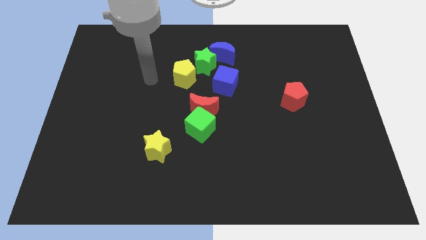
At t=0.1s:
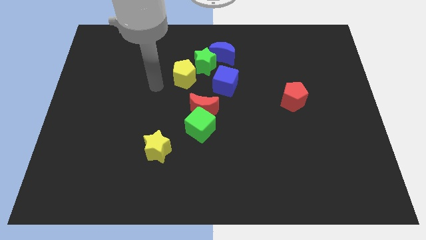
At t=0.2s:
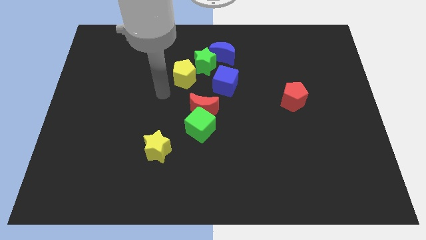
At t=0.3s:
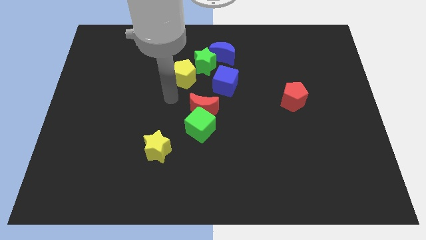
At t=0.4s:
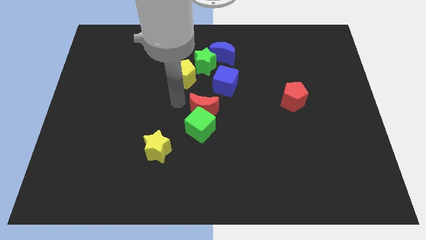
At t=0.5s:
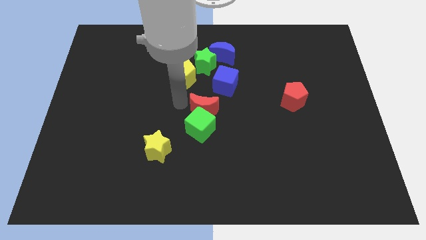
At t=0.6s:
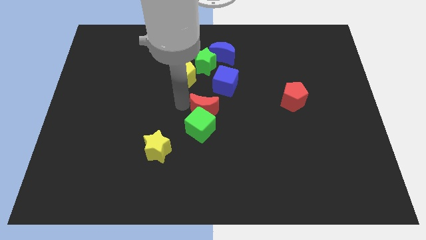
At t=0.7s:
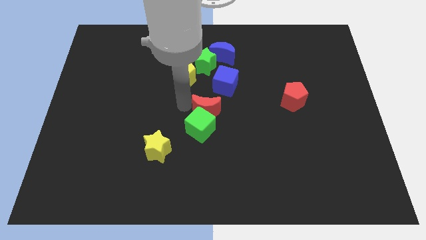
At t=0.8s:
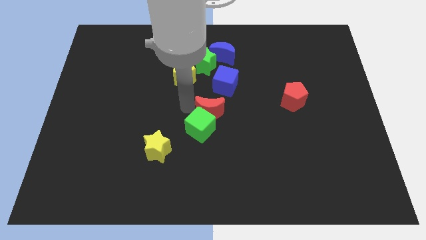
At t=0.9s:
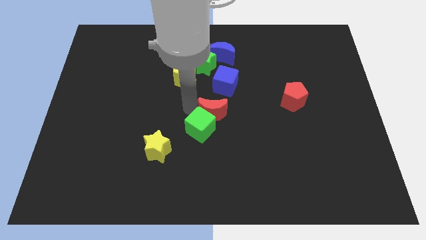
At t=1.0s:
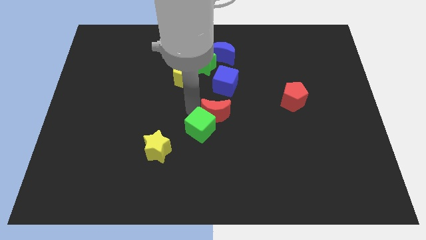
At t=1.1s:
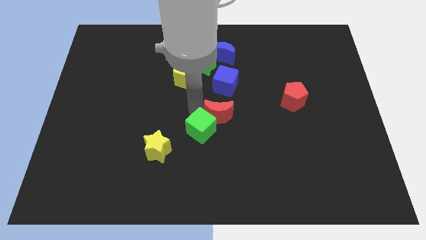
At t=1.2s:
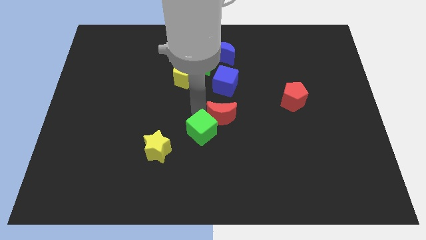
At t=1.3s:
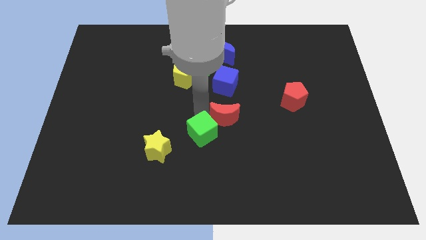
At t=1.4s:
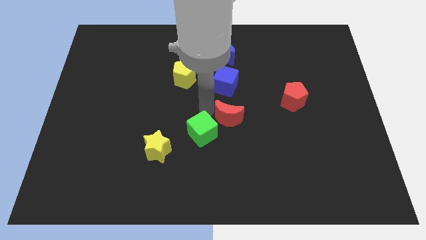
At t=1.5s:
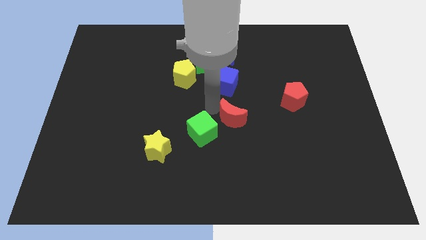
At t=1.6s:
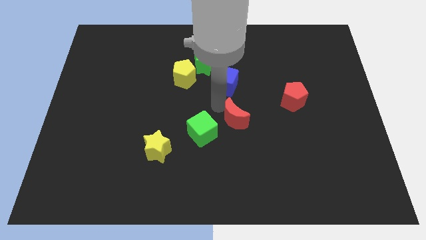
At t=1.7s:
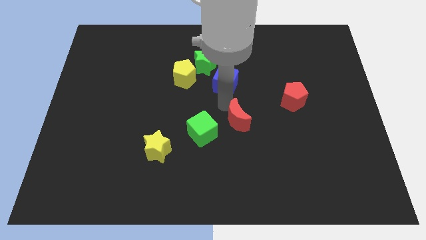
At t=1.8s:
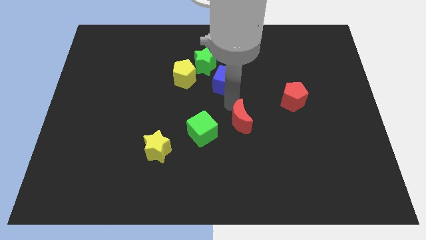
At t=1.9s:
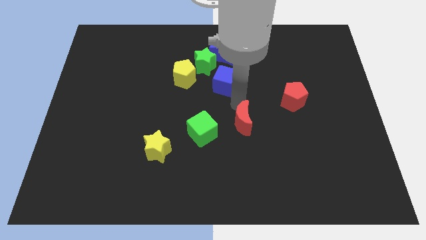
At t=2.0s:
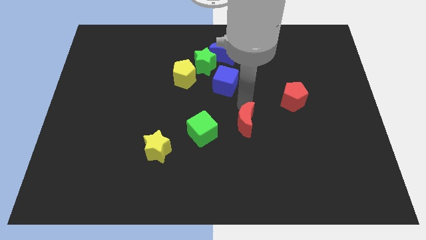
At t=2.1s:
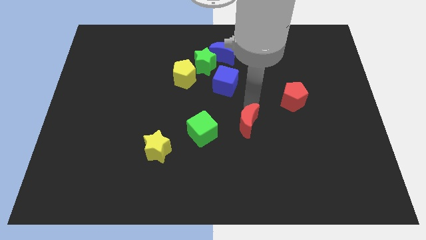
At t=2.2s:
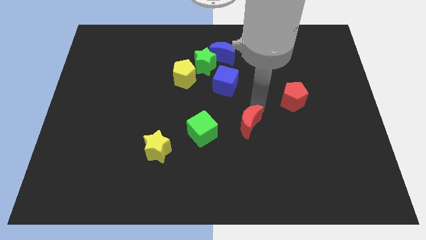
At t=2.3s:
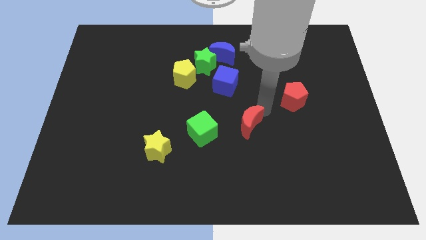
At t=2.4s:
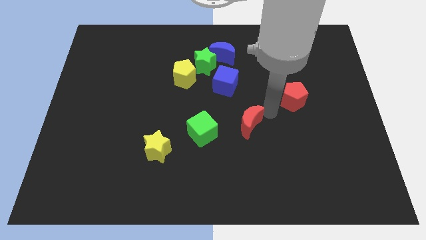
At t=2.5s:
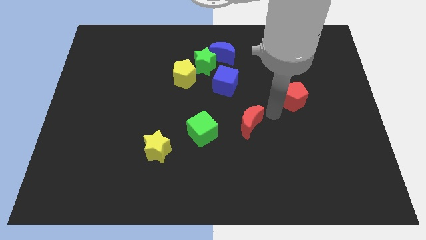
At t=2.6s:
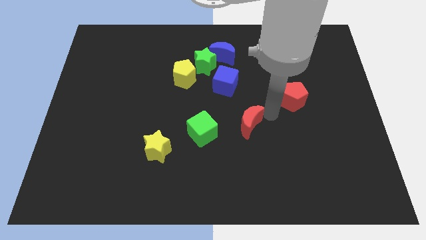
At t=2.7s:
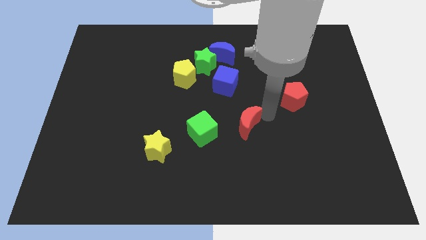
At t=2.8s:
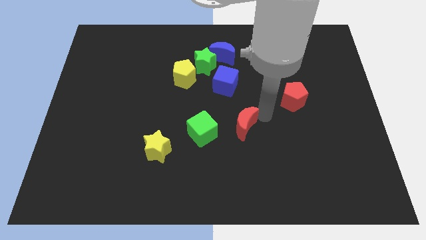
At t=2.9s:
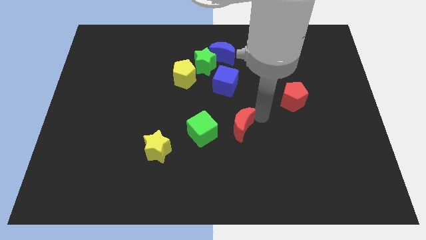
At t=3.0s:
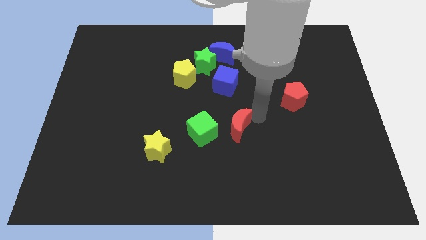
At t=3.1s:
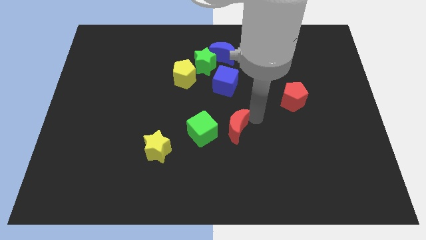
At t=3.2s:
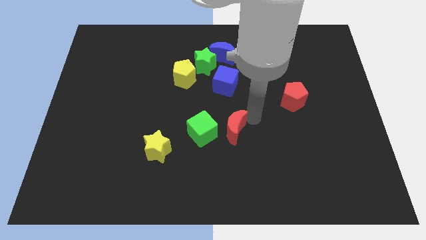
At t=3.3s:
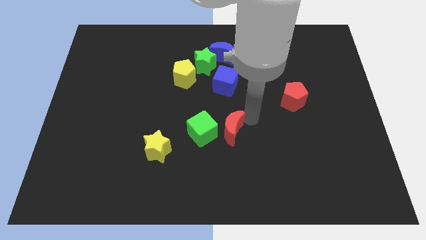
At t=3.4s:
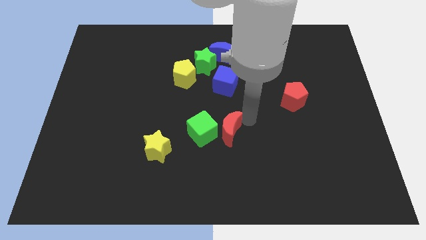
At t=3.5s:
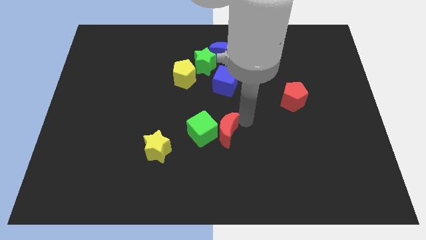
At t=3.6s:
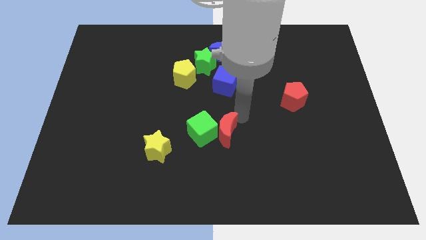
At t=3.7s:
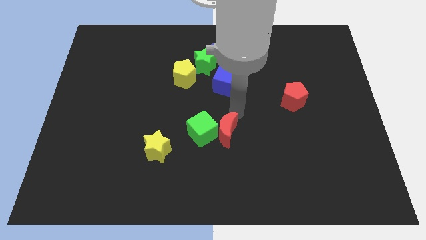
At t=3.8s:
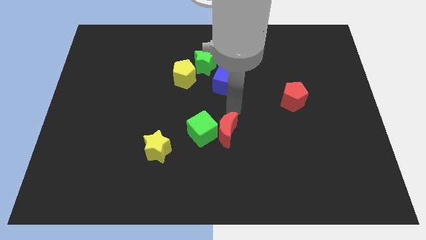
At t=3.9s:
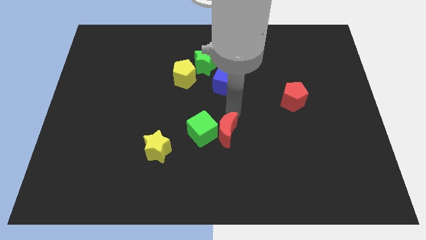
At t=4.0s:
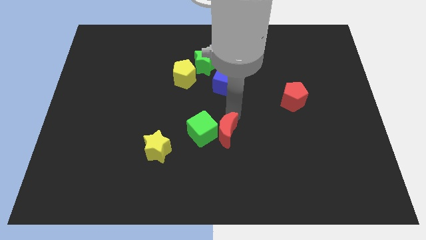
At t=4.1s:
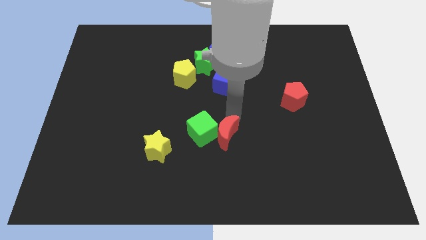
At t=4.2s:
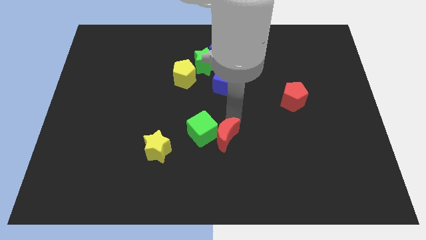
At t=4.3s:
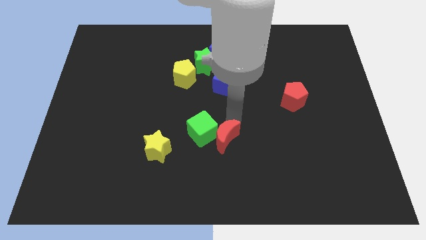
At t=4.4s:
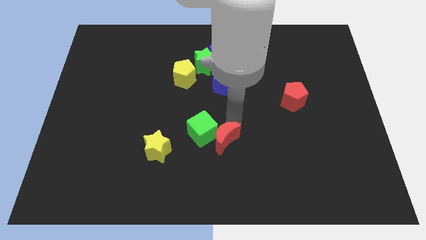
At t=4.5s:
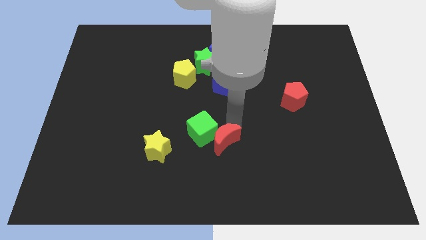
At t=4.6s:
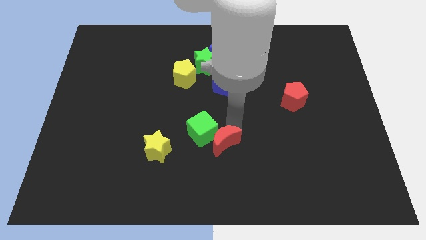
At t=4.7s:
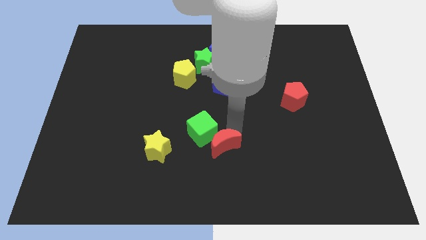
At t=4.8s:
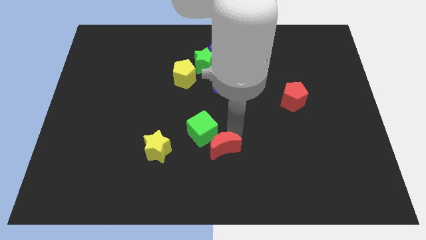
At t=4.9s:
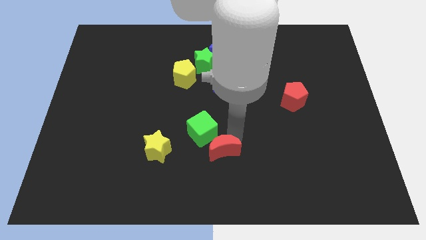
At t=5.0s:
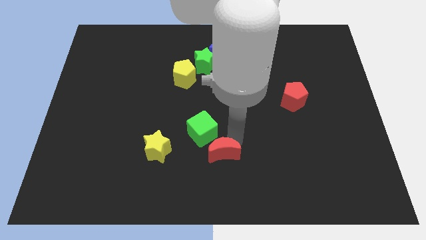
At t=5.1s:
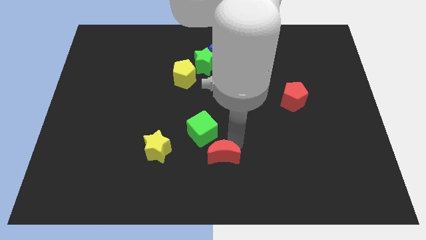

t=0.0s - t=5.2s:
put the red moon to the bottom

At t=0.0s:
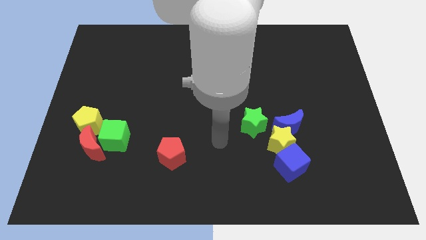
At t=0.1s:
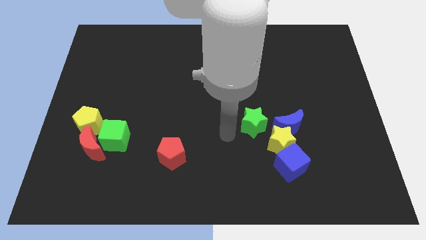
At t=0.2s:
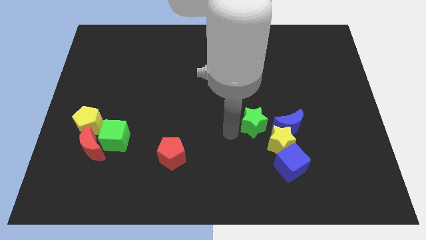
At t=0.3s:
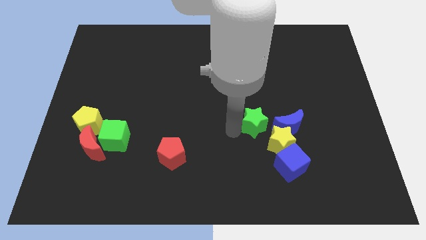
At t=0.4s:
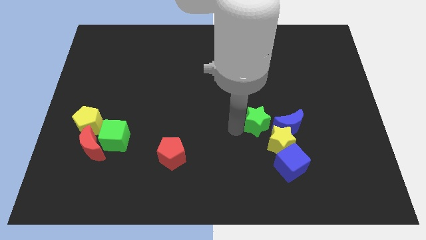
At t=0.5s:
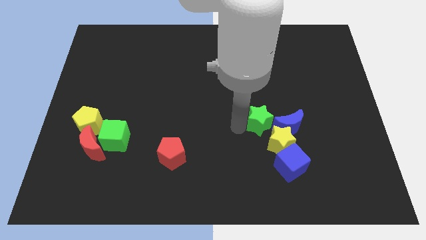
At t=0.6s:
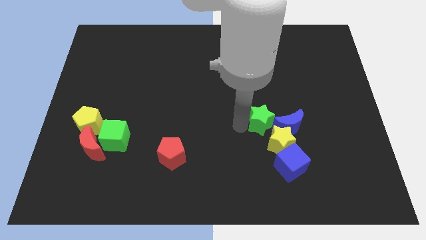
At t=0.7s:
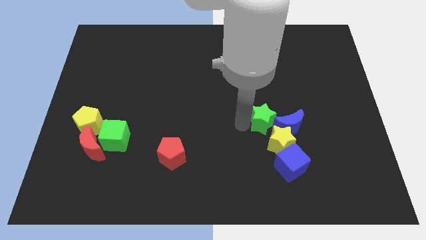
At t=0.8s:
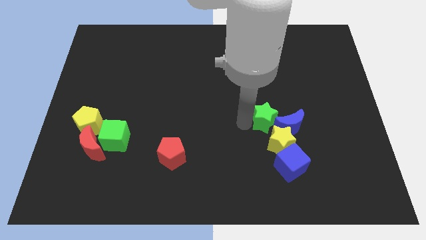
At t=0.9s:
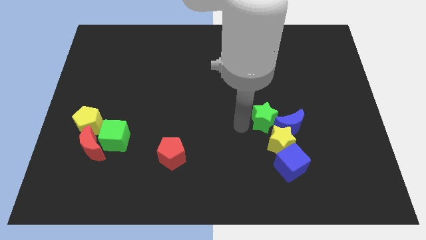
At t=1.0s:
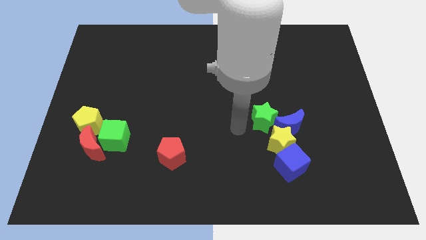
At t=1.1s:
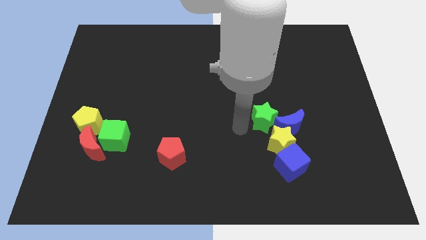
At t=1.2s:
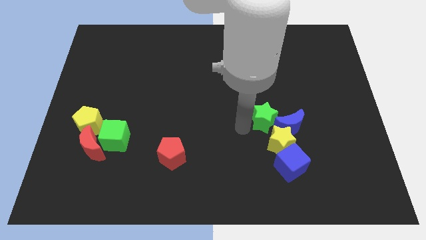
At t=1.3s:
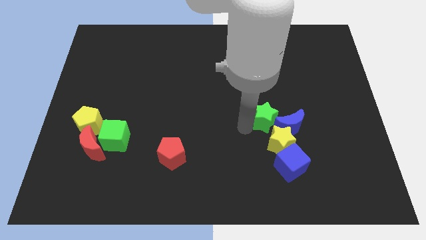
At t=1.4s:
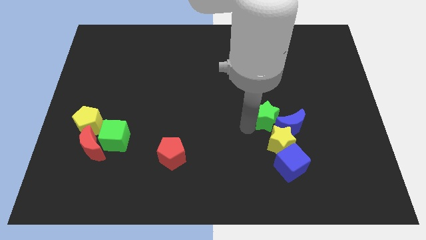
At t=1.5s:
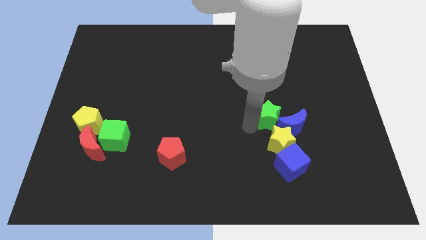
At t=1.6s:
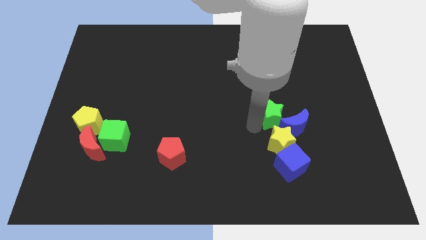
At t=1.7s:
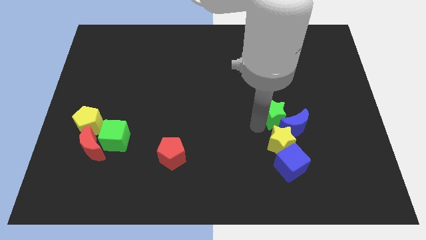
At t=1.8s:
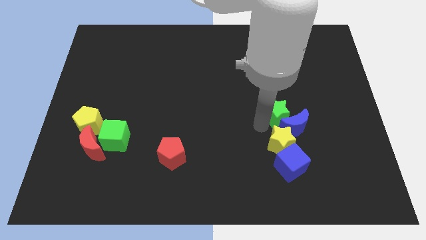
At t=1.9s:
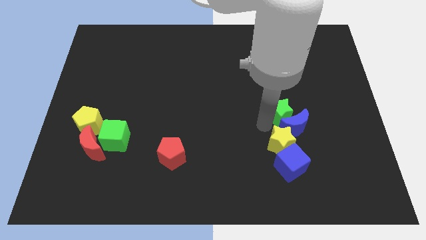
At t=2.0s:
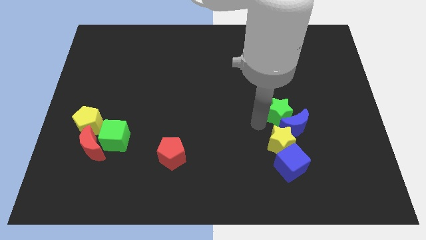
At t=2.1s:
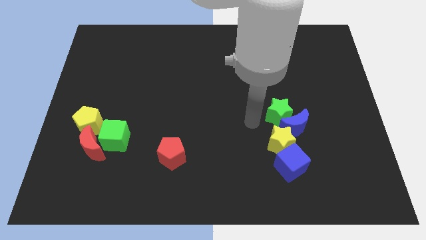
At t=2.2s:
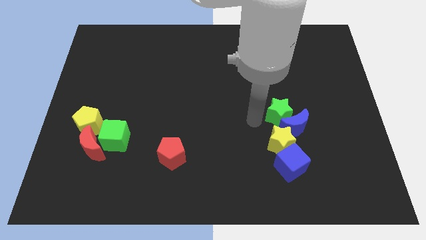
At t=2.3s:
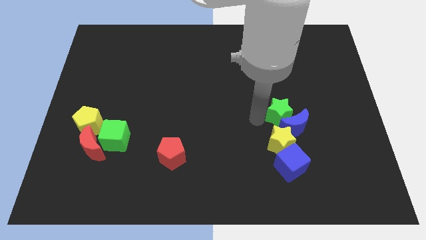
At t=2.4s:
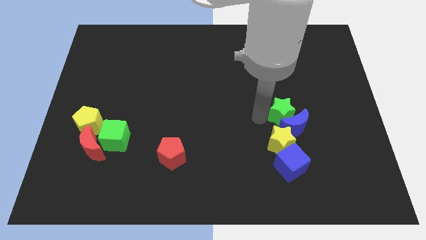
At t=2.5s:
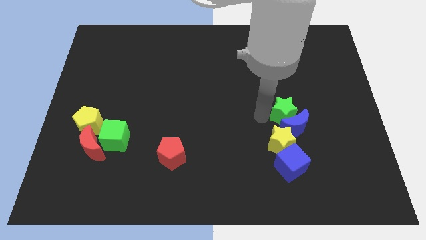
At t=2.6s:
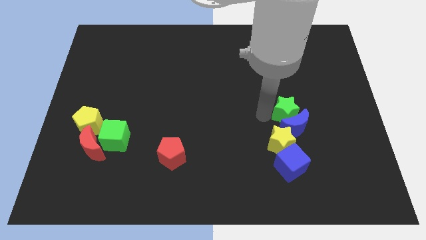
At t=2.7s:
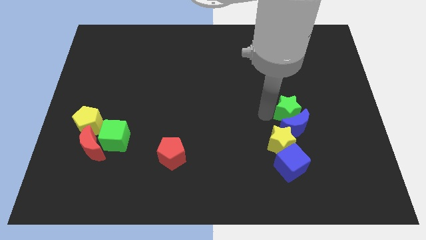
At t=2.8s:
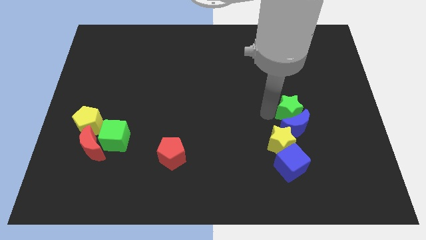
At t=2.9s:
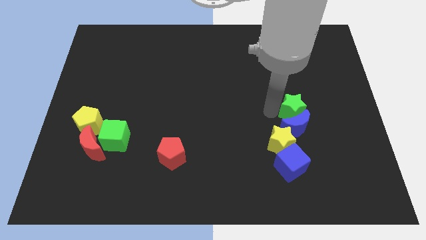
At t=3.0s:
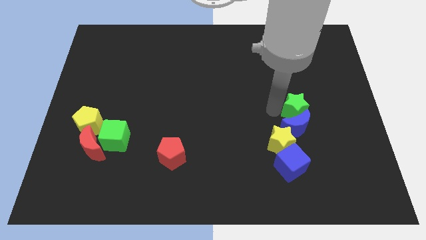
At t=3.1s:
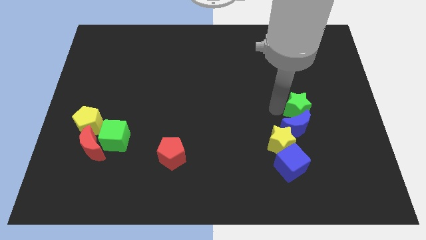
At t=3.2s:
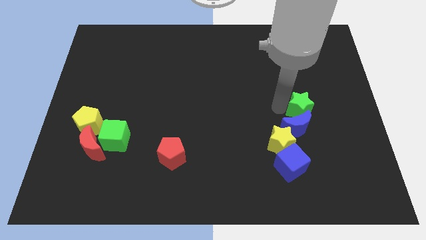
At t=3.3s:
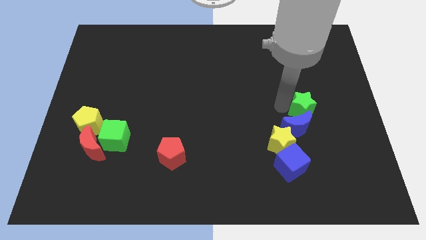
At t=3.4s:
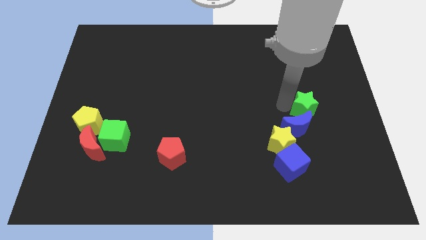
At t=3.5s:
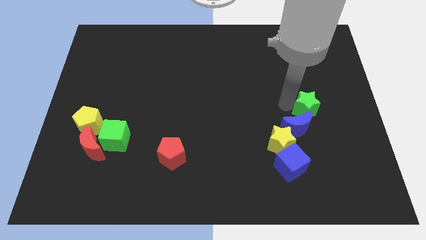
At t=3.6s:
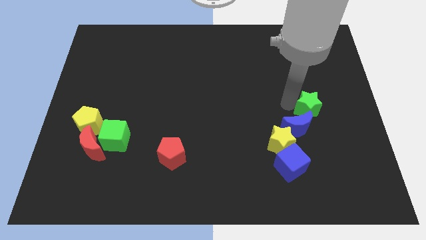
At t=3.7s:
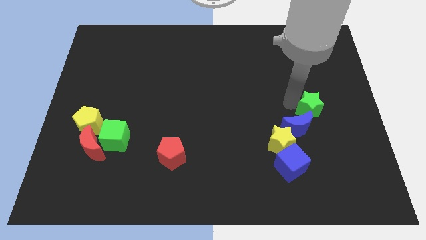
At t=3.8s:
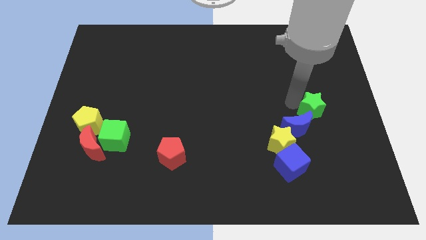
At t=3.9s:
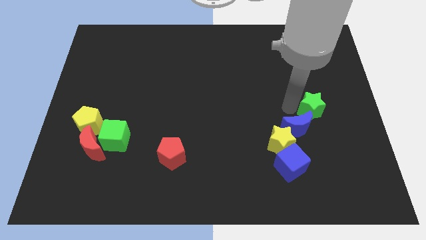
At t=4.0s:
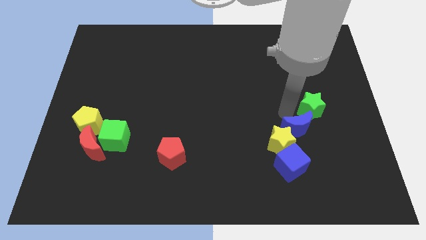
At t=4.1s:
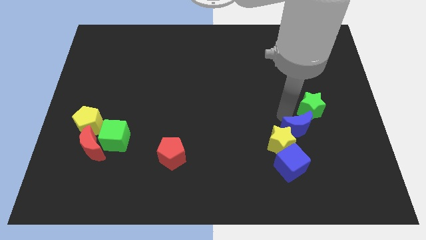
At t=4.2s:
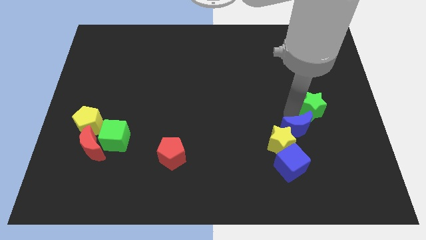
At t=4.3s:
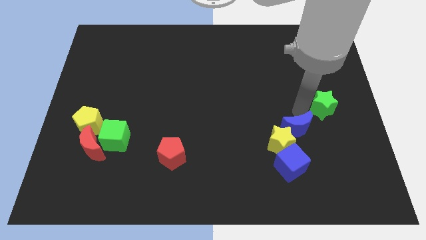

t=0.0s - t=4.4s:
slide the green star to the right side
